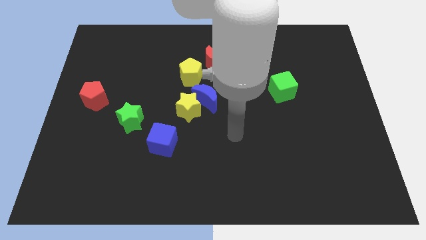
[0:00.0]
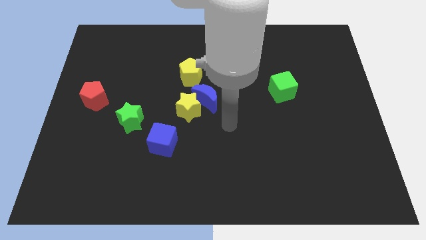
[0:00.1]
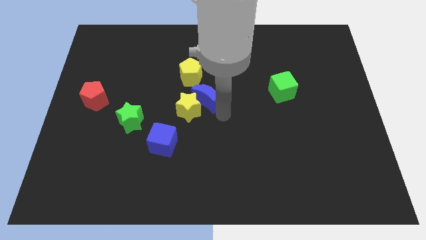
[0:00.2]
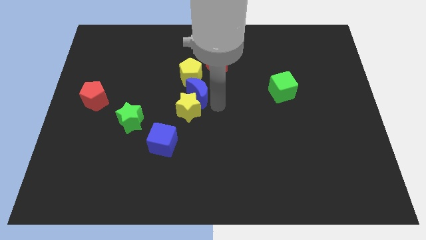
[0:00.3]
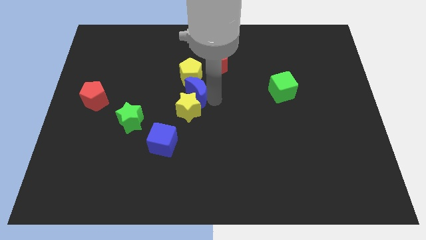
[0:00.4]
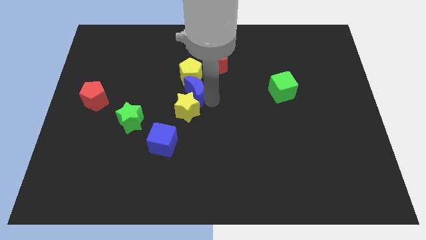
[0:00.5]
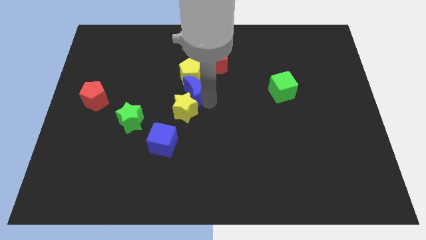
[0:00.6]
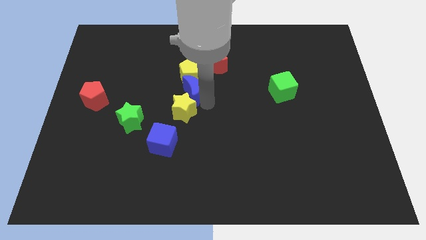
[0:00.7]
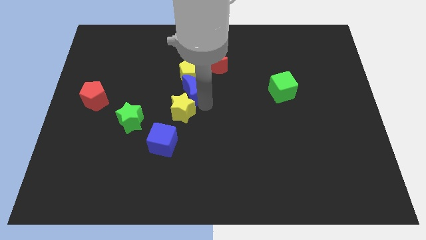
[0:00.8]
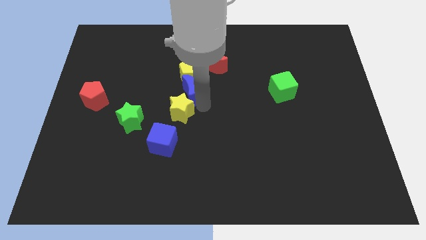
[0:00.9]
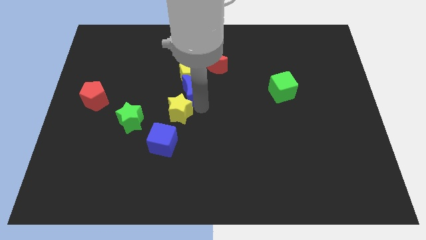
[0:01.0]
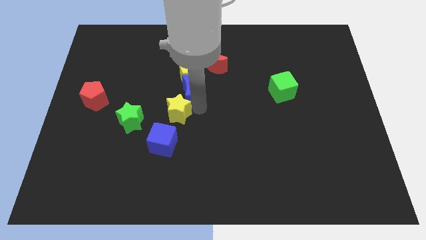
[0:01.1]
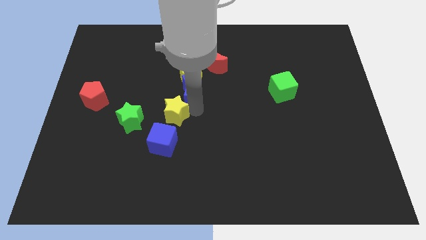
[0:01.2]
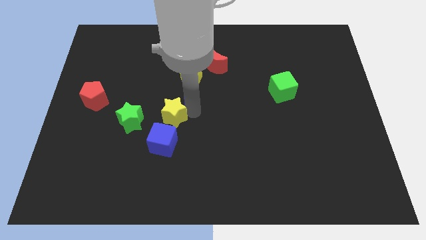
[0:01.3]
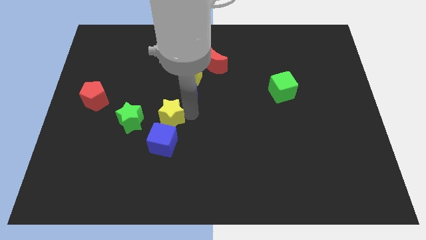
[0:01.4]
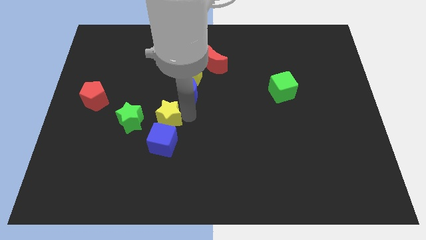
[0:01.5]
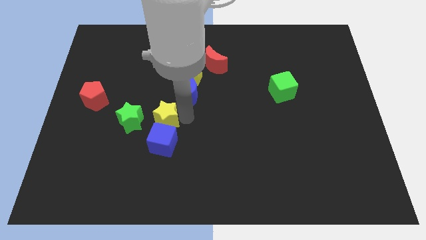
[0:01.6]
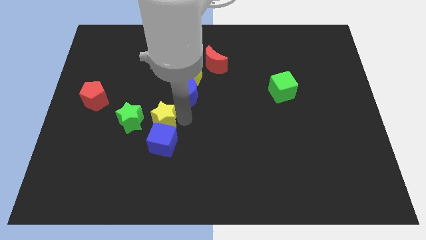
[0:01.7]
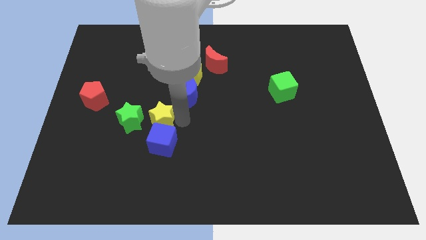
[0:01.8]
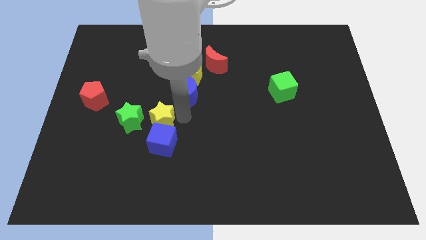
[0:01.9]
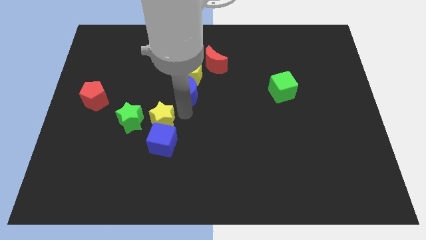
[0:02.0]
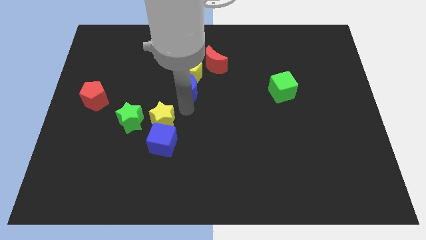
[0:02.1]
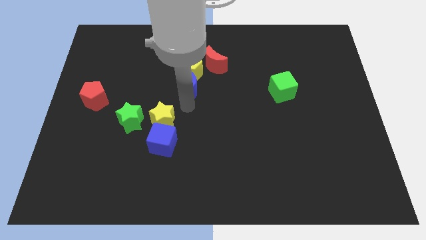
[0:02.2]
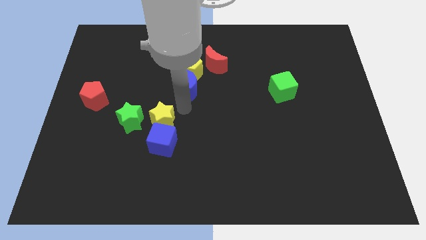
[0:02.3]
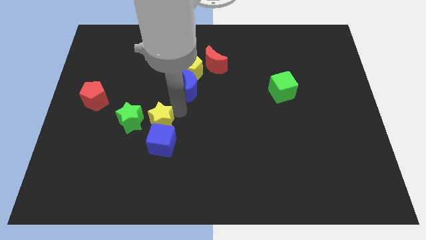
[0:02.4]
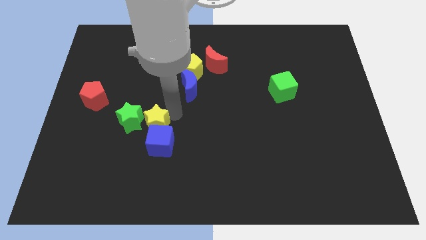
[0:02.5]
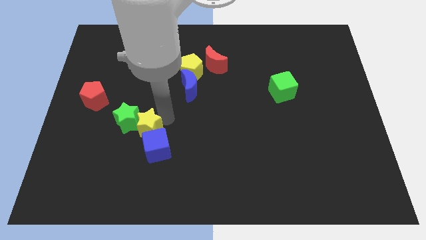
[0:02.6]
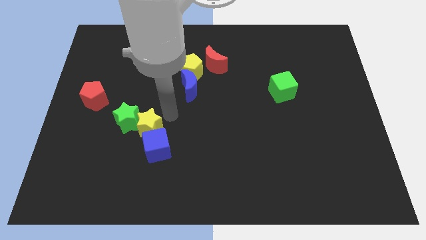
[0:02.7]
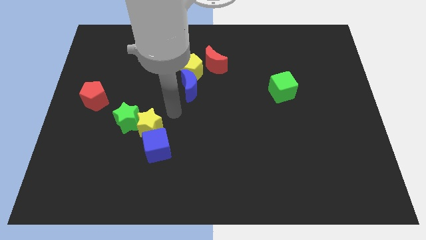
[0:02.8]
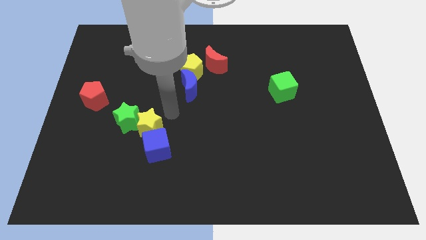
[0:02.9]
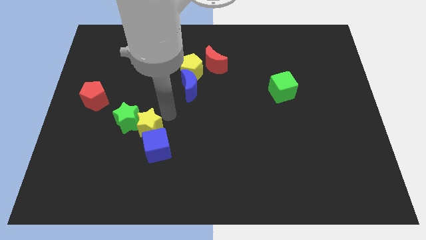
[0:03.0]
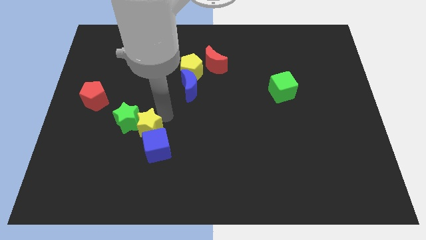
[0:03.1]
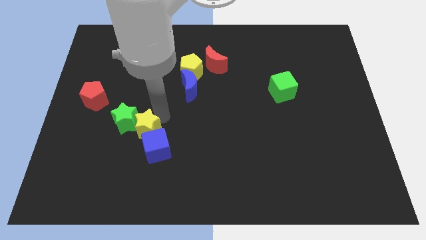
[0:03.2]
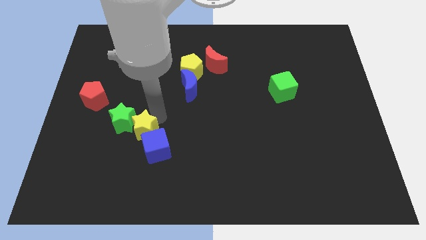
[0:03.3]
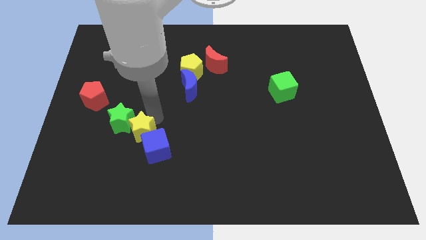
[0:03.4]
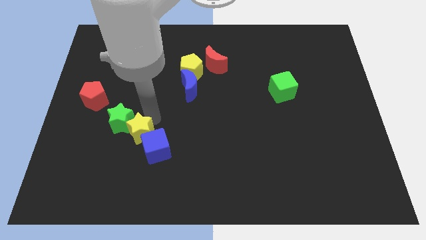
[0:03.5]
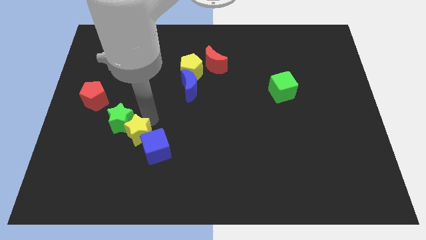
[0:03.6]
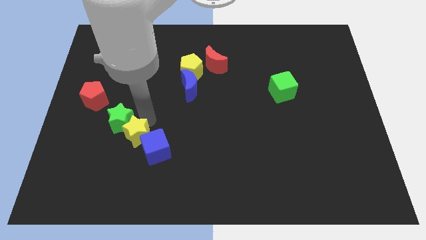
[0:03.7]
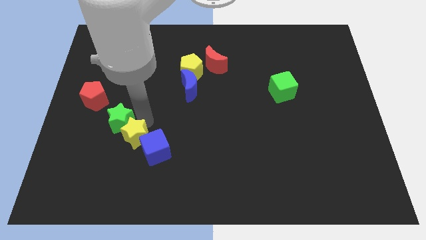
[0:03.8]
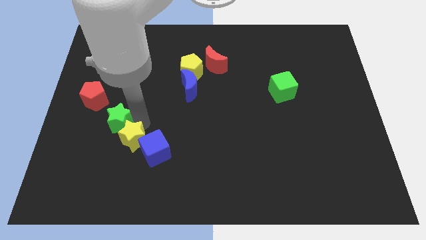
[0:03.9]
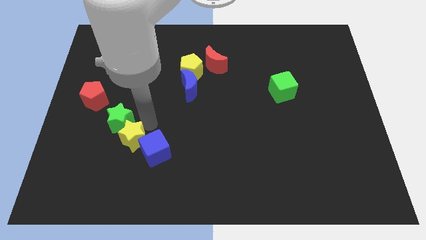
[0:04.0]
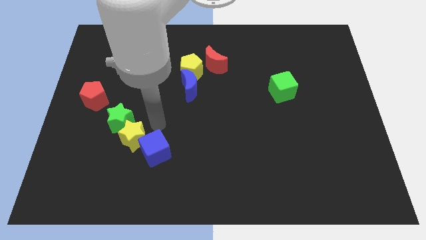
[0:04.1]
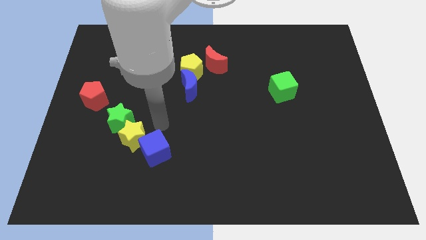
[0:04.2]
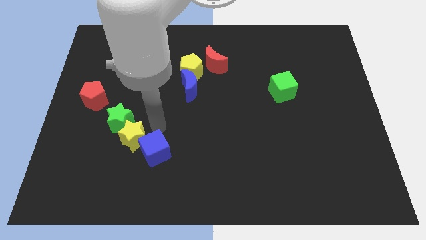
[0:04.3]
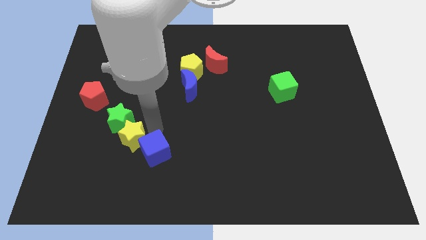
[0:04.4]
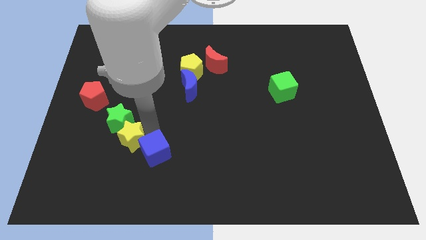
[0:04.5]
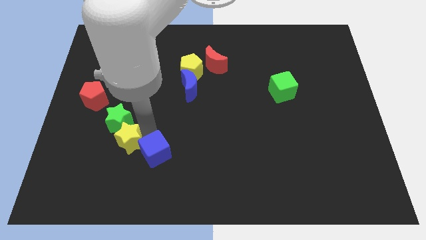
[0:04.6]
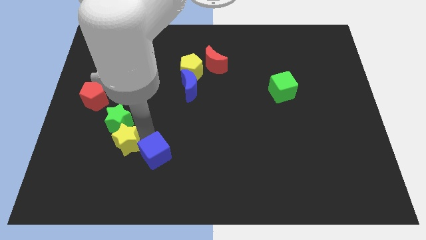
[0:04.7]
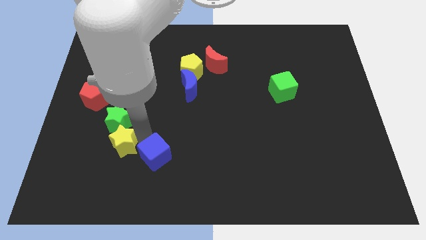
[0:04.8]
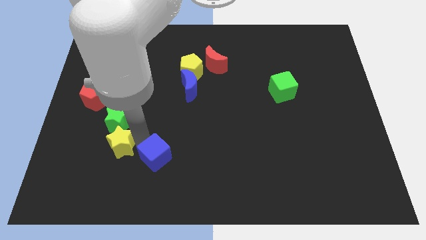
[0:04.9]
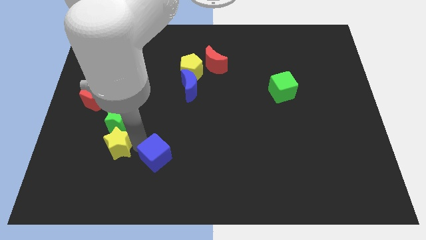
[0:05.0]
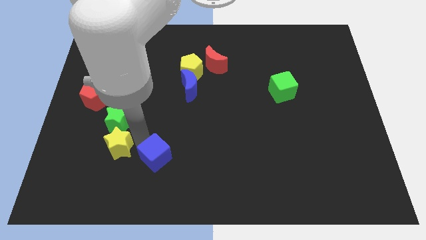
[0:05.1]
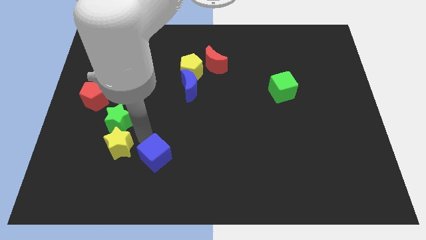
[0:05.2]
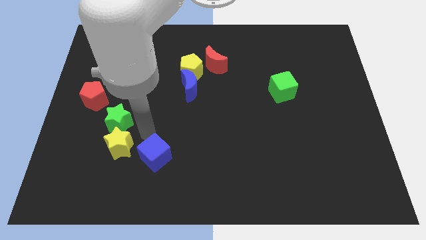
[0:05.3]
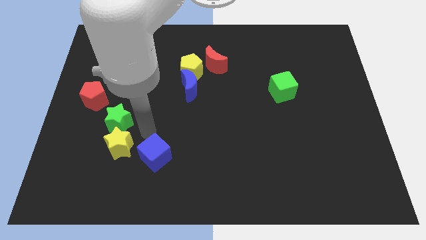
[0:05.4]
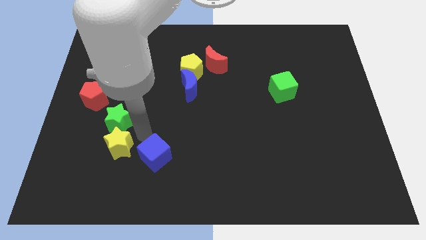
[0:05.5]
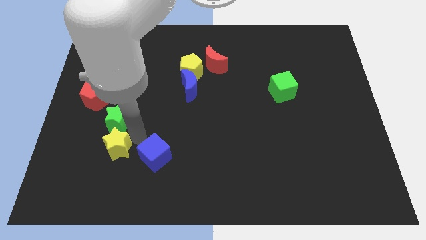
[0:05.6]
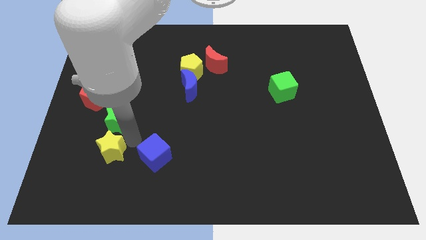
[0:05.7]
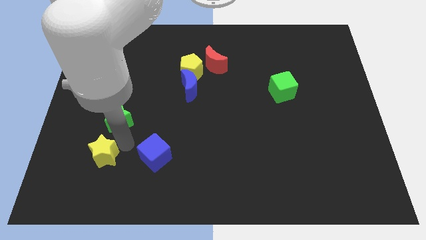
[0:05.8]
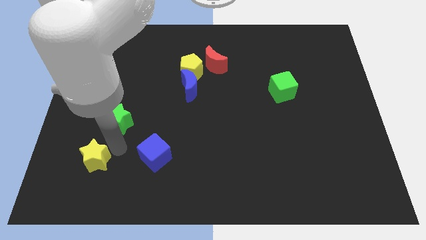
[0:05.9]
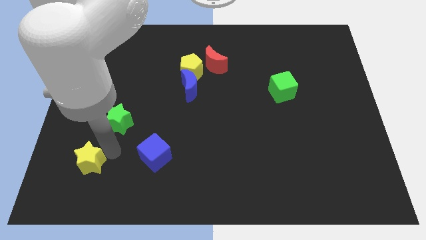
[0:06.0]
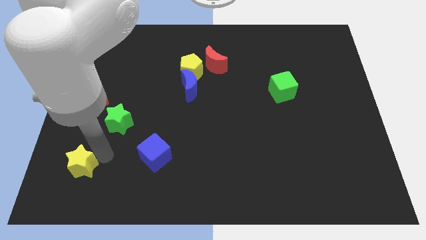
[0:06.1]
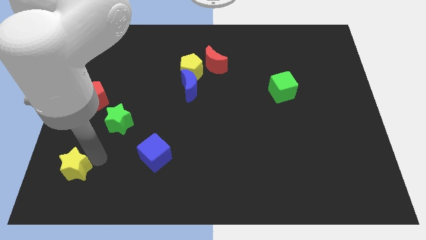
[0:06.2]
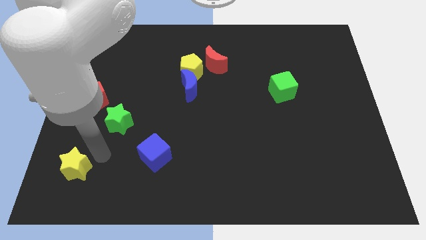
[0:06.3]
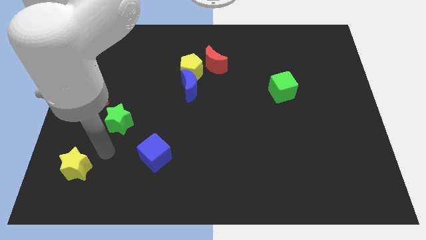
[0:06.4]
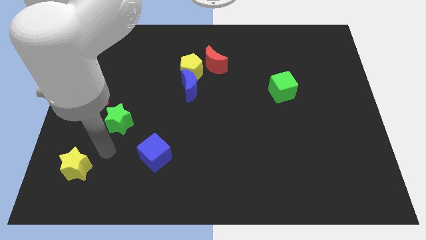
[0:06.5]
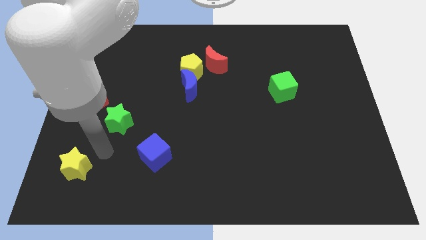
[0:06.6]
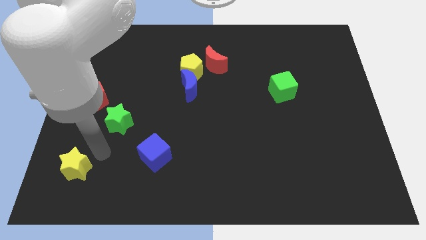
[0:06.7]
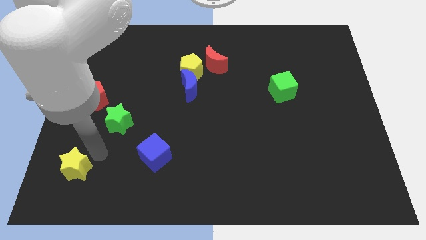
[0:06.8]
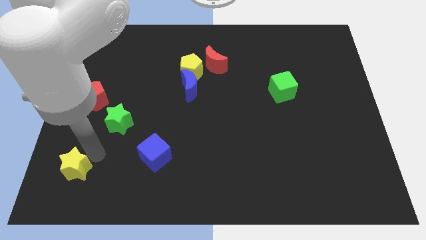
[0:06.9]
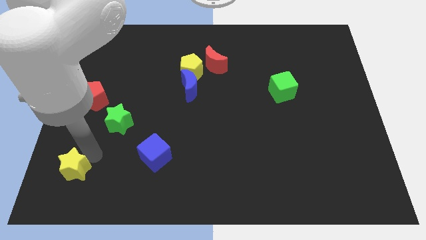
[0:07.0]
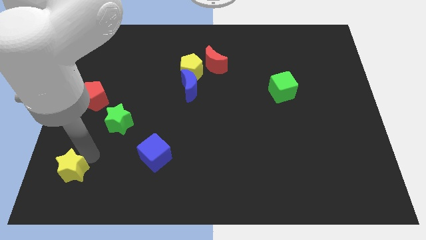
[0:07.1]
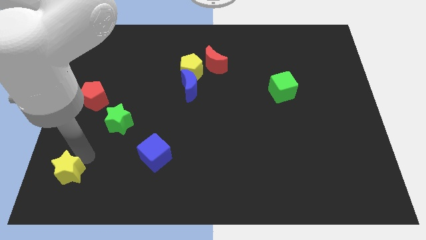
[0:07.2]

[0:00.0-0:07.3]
put the yellow star to the lower left corner
